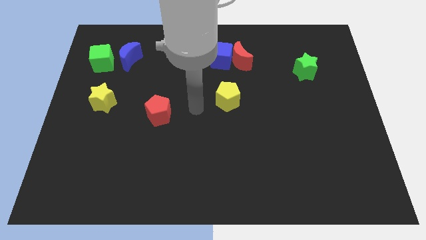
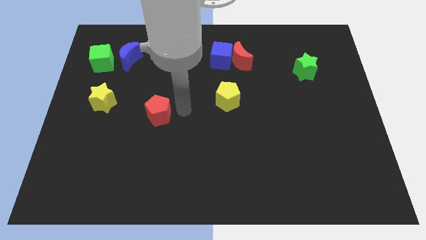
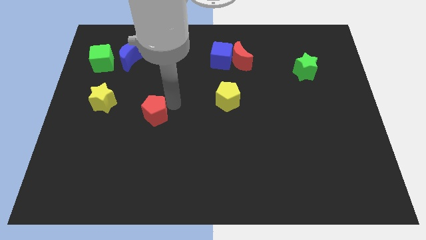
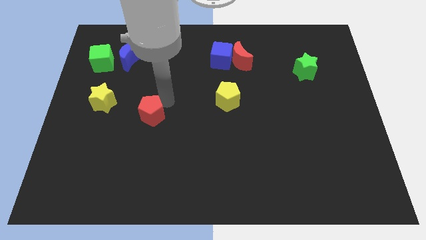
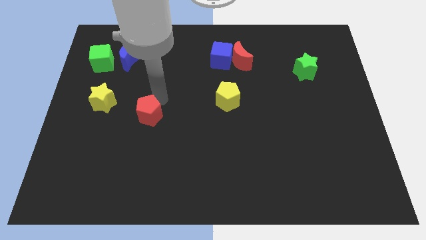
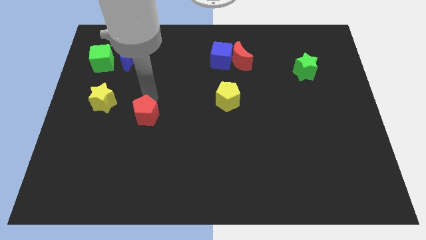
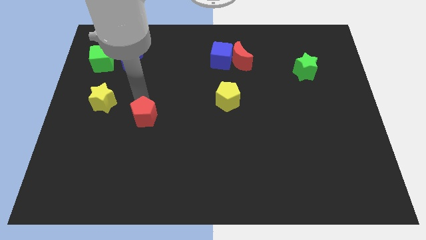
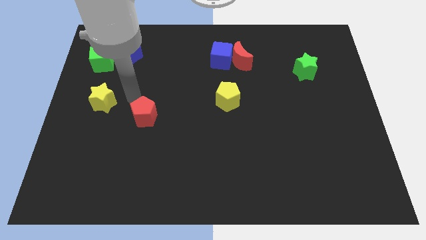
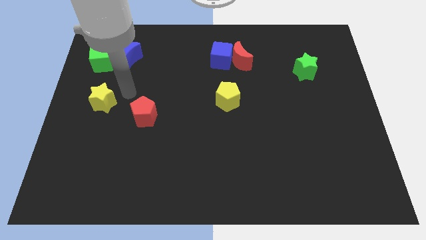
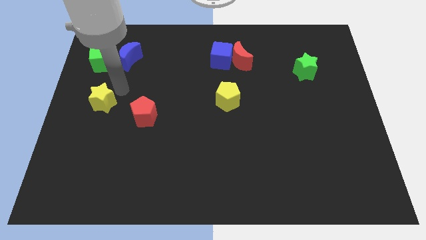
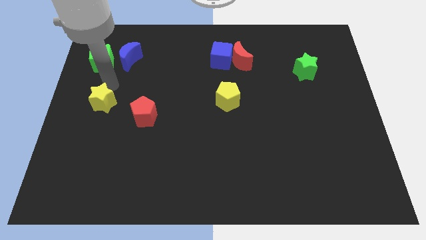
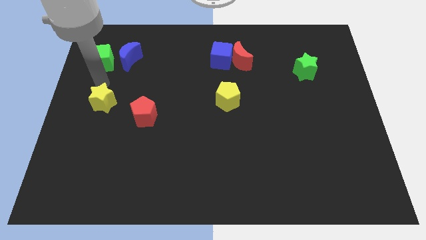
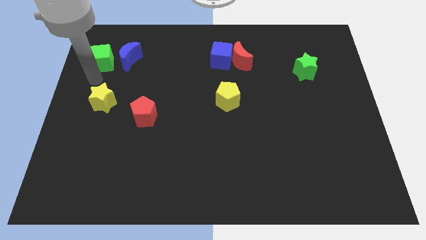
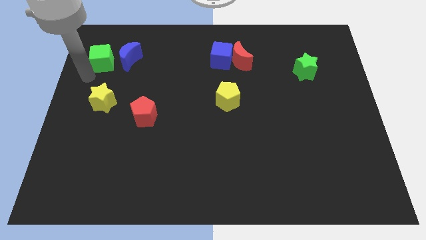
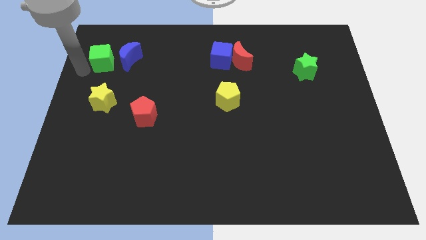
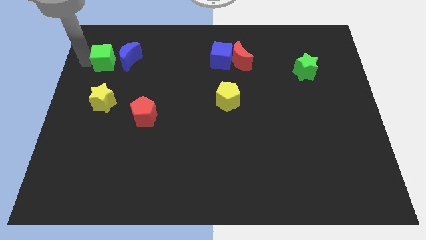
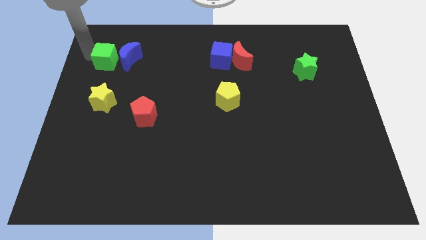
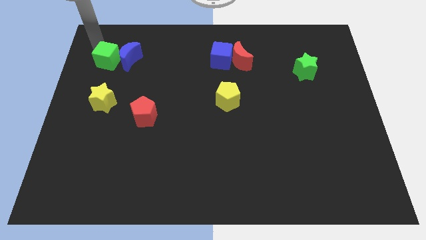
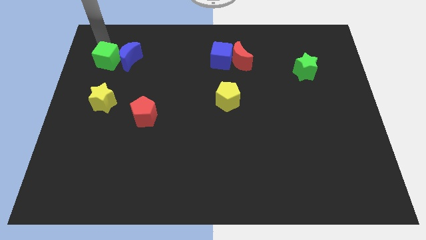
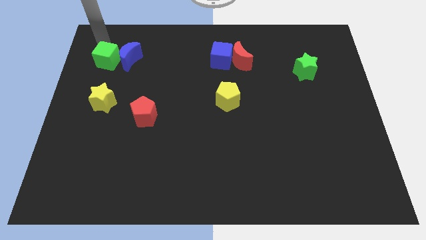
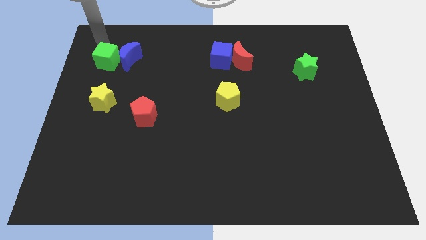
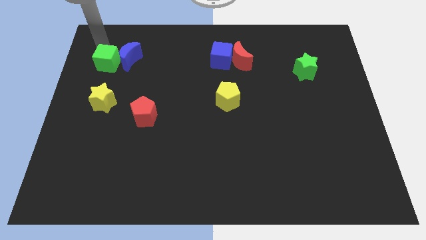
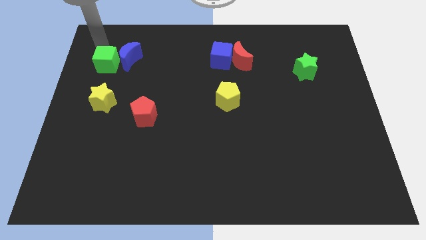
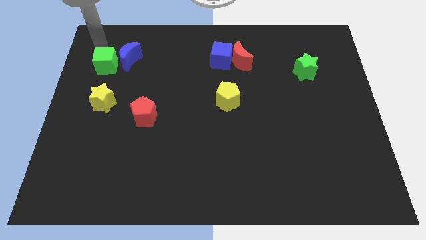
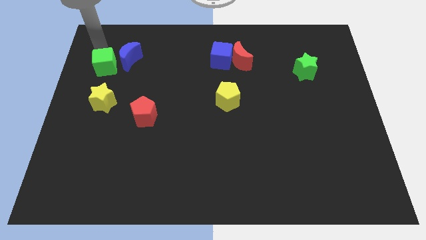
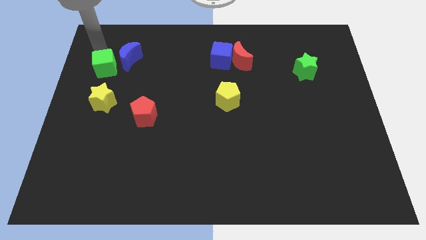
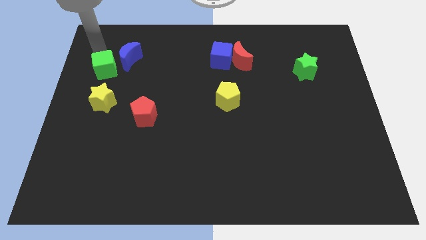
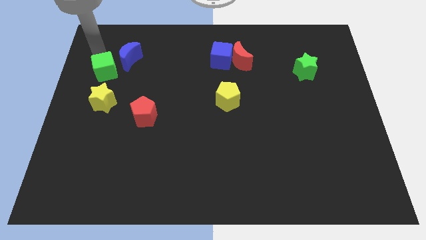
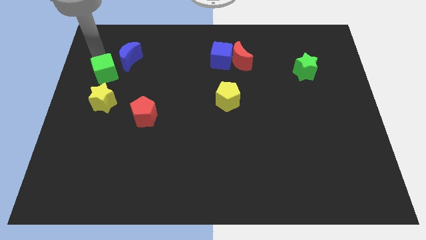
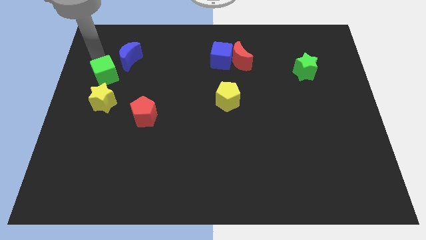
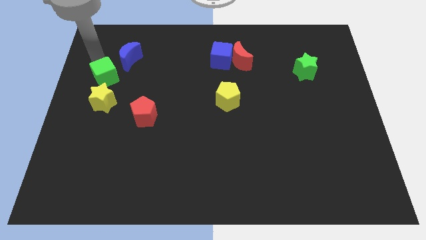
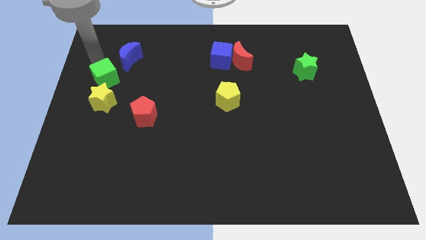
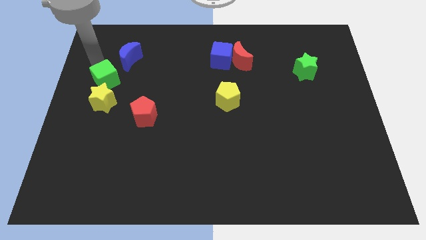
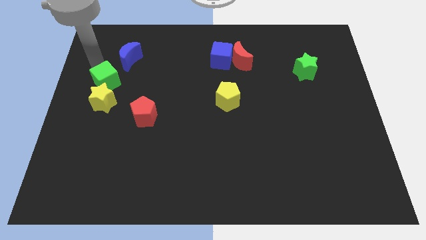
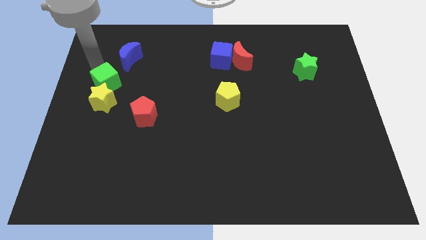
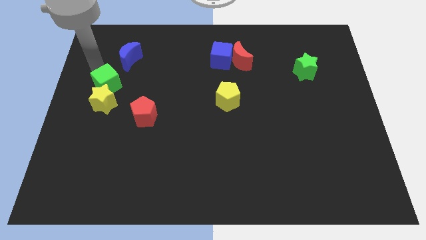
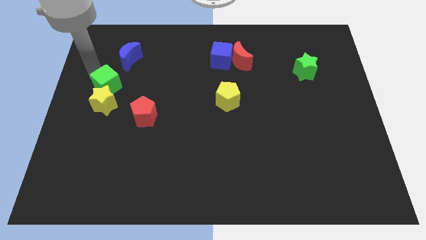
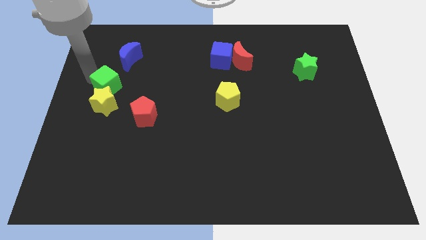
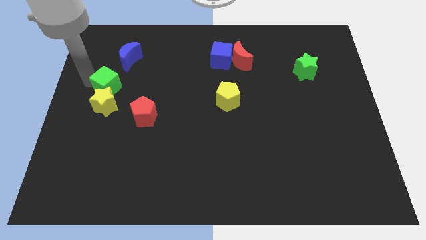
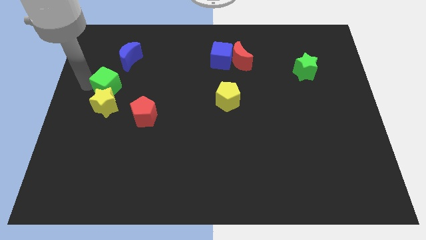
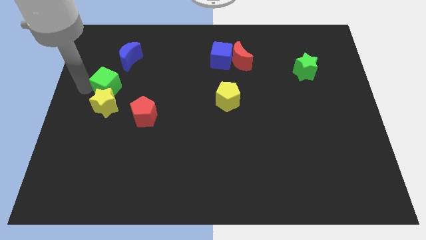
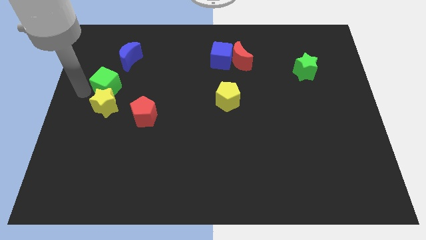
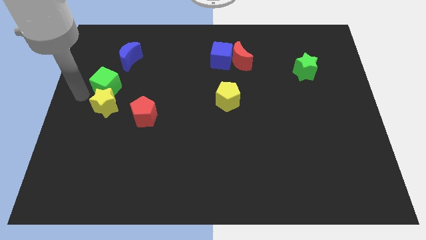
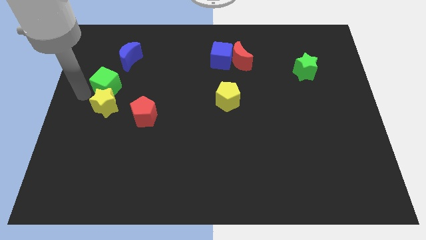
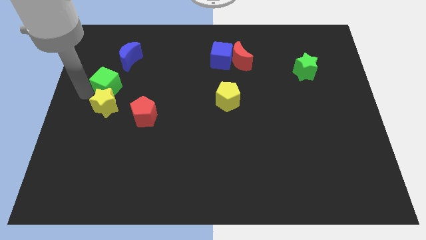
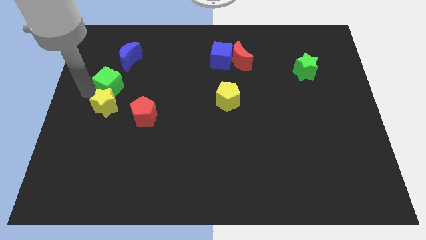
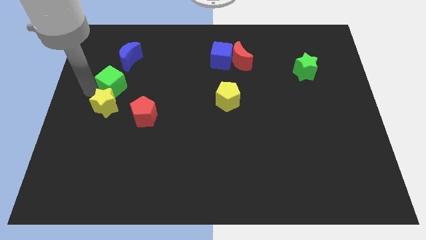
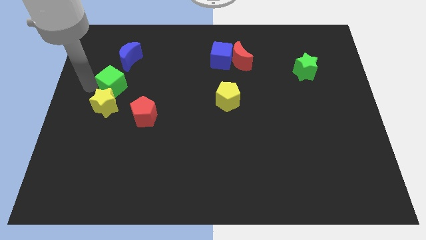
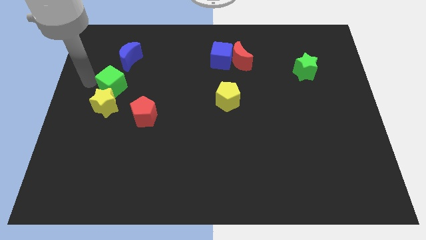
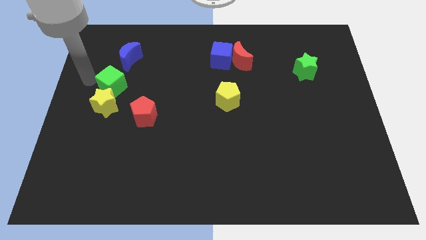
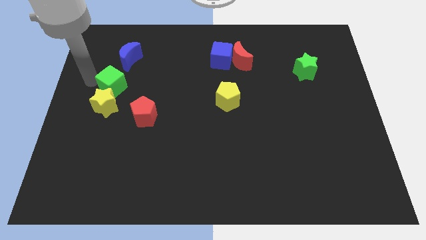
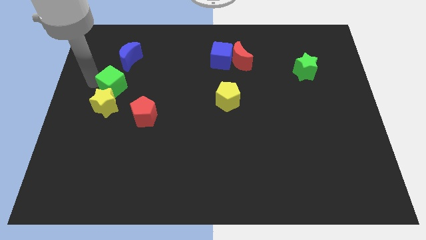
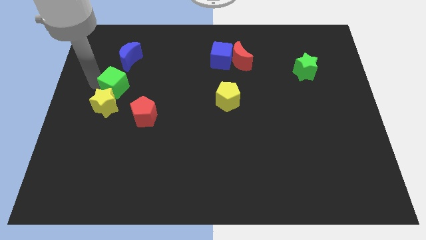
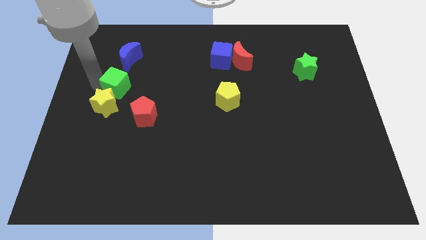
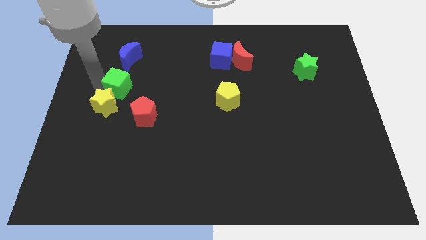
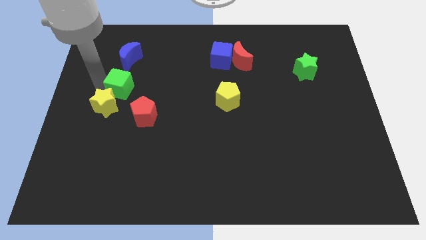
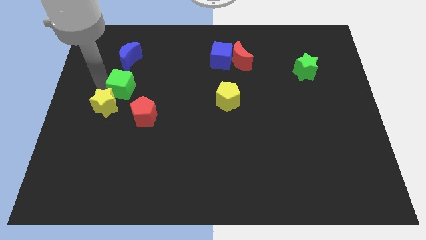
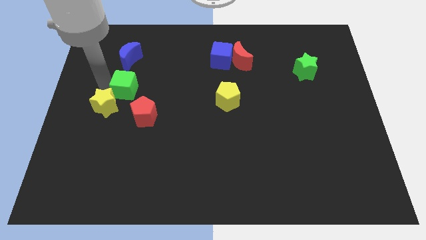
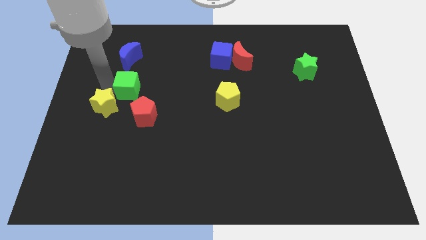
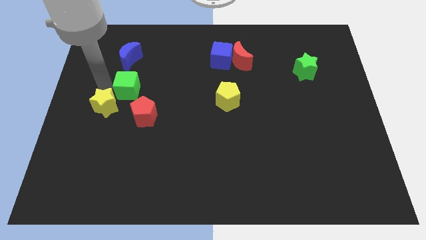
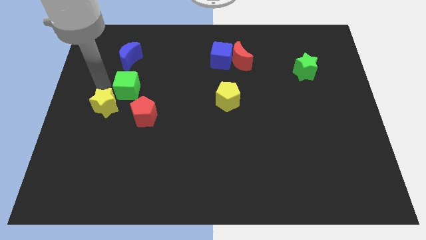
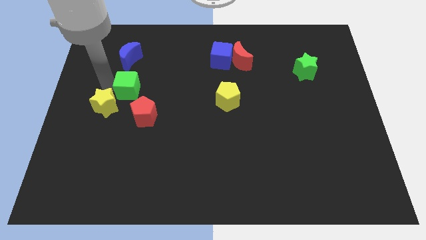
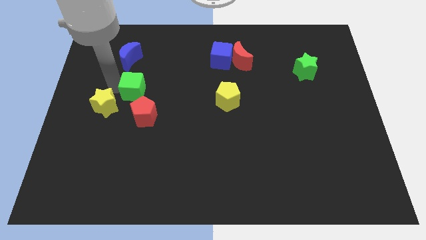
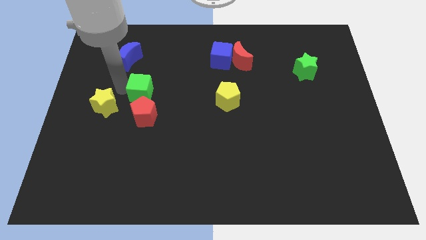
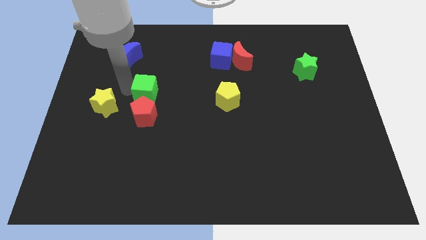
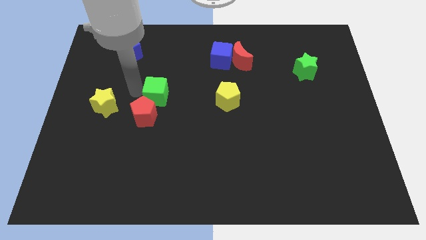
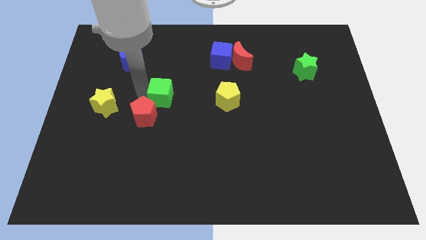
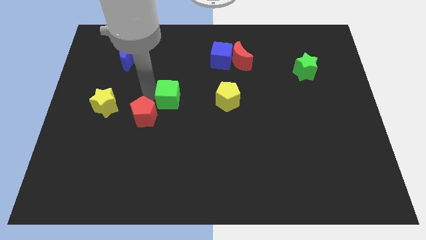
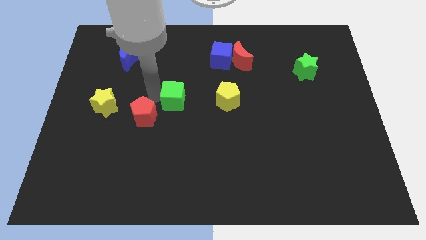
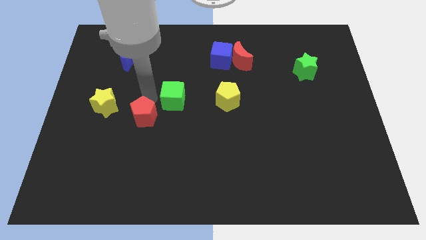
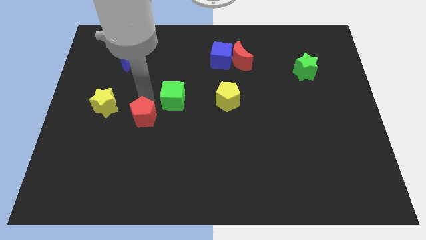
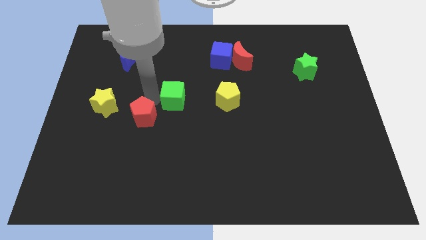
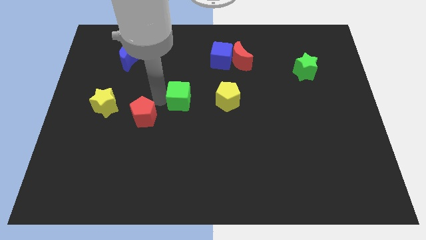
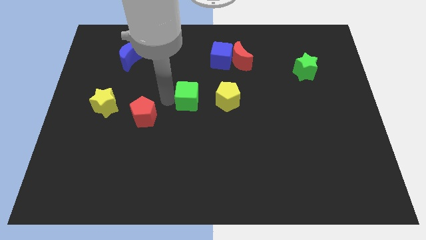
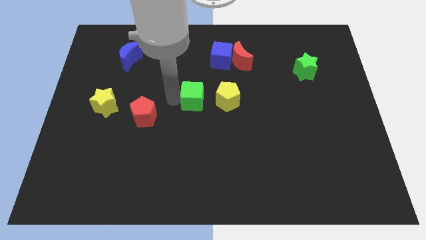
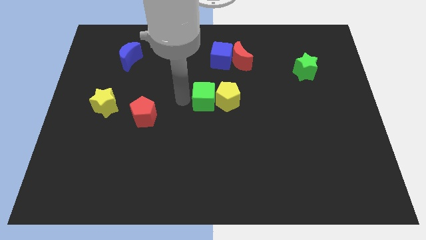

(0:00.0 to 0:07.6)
slide the green cube towards the yellow pentagon

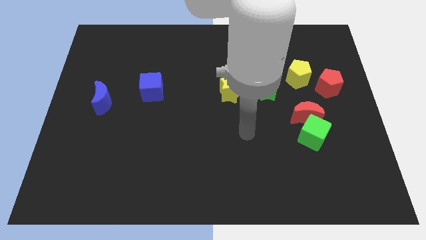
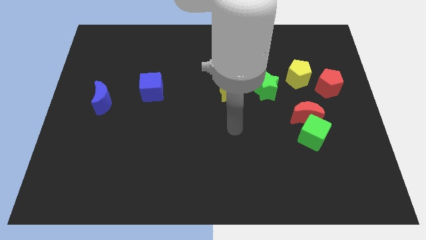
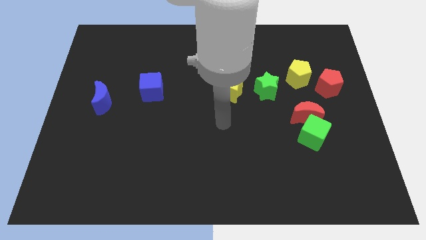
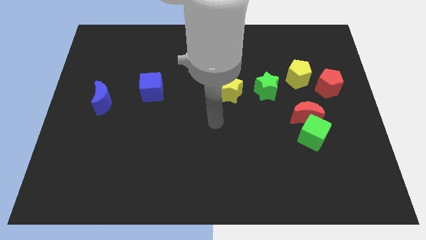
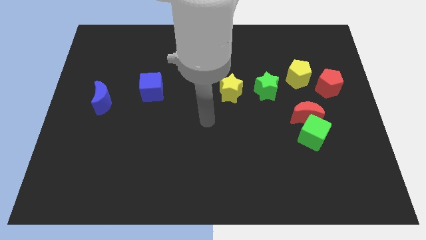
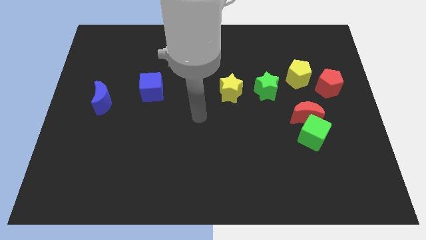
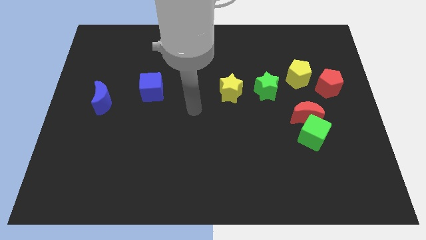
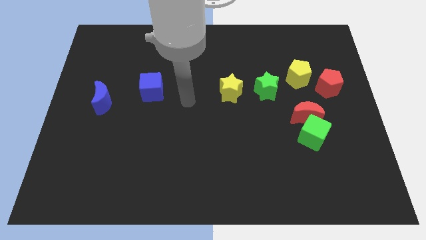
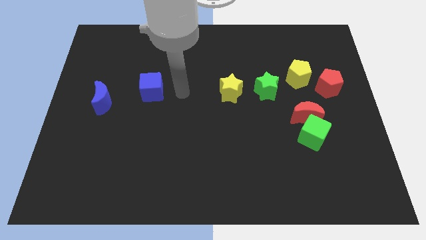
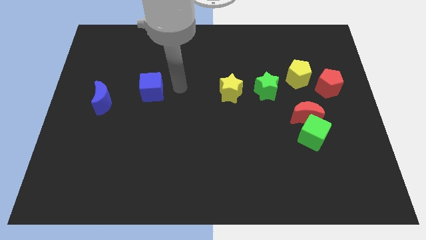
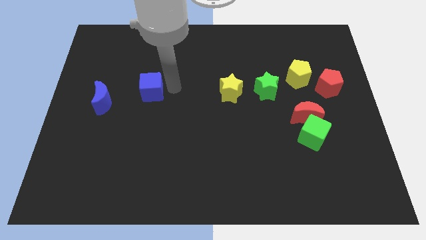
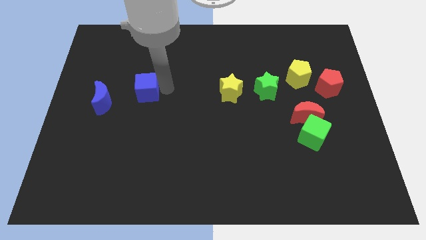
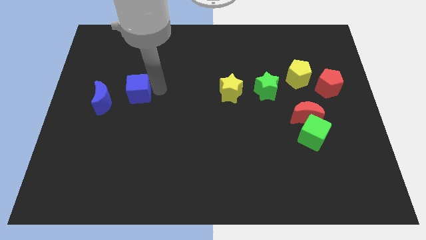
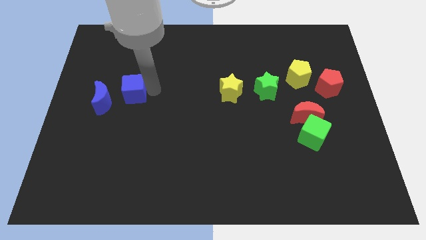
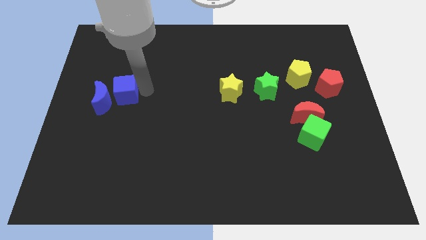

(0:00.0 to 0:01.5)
push the blue cube close to the blue moon
